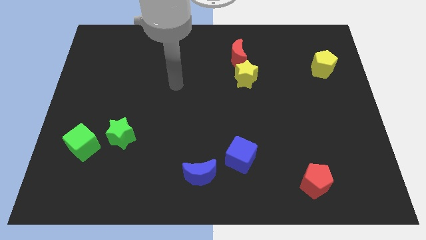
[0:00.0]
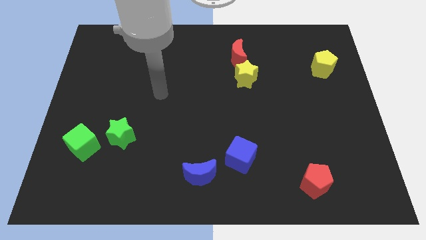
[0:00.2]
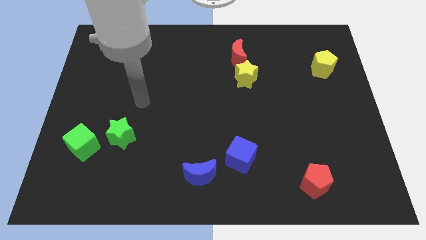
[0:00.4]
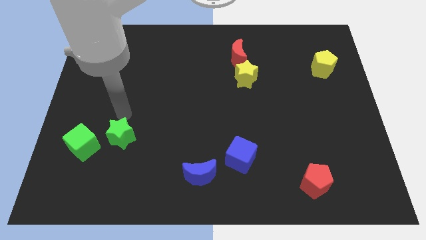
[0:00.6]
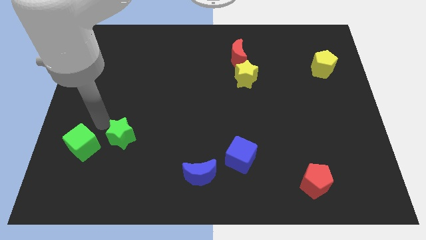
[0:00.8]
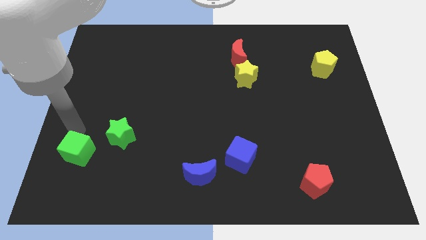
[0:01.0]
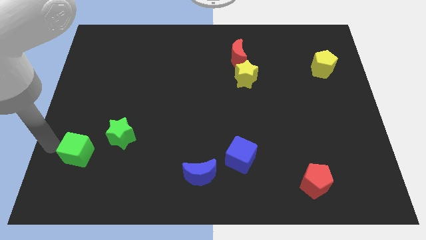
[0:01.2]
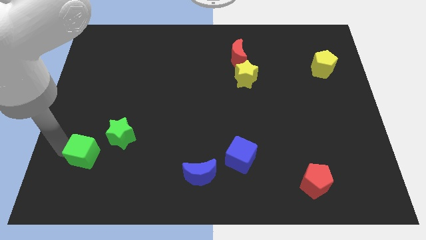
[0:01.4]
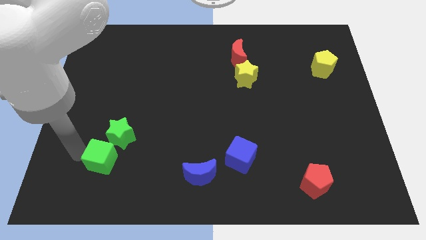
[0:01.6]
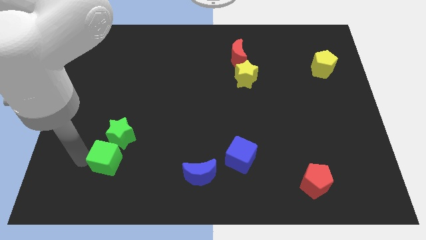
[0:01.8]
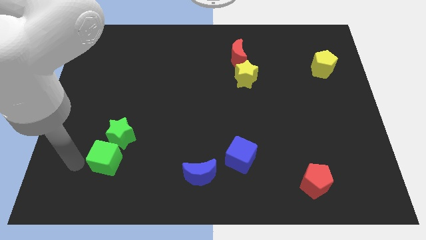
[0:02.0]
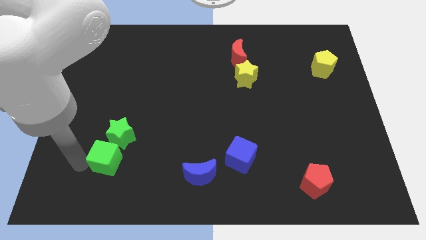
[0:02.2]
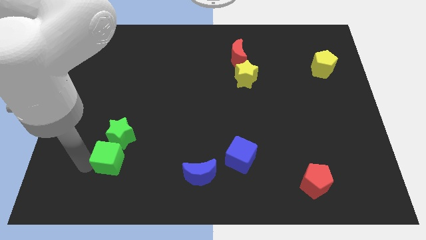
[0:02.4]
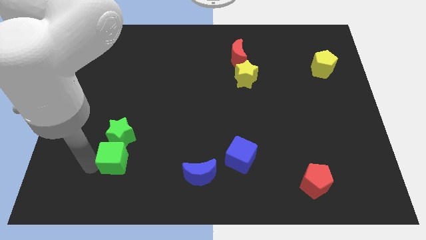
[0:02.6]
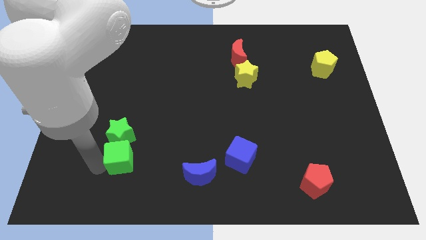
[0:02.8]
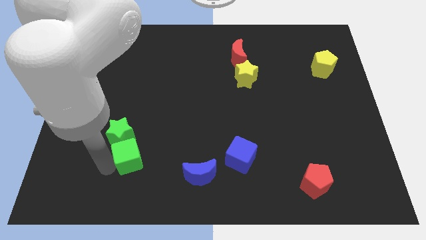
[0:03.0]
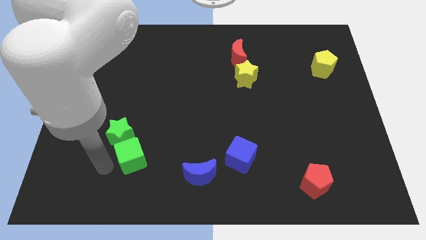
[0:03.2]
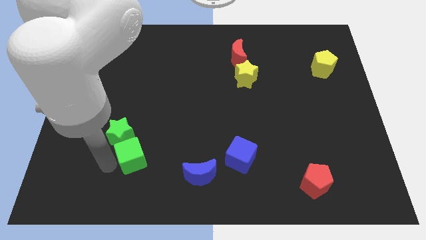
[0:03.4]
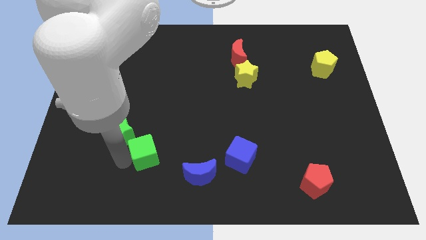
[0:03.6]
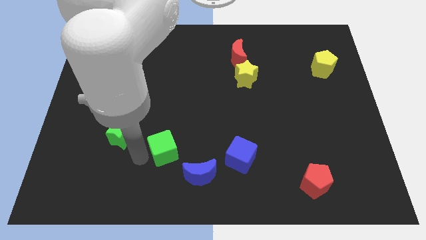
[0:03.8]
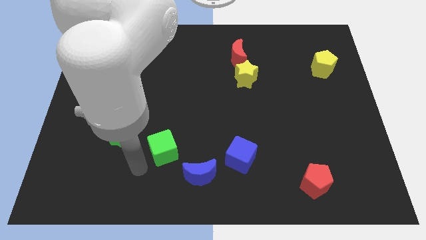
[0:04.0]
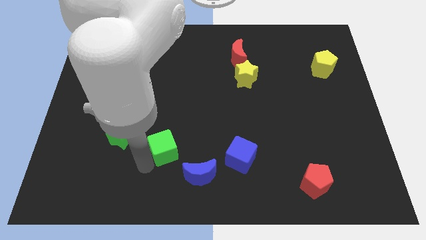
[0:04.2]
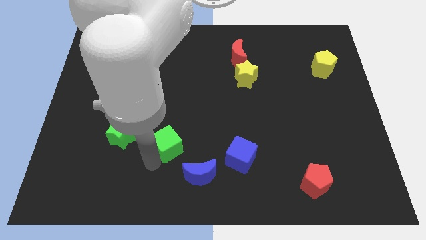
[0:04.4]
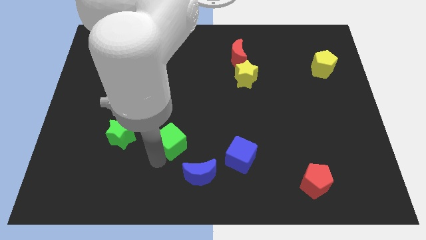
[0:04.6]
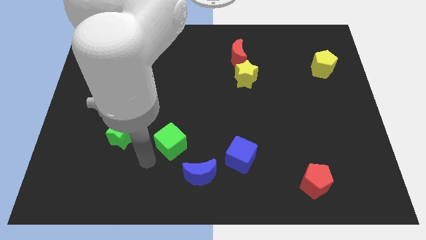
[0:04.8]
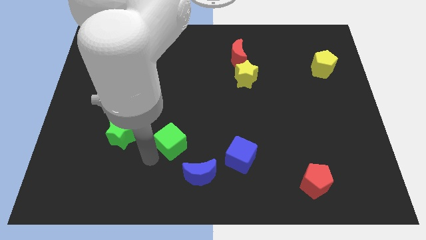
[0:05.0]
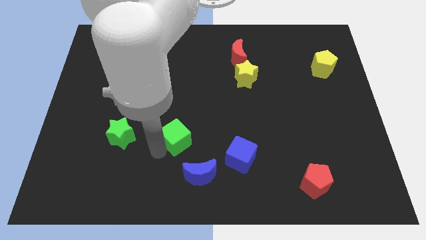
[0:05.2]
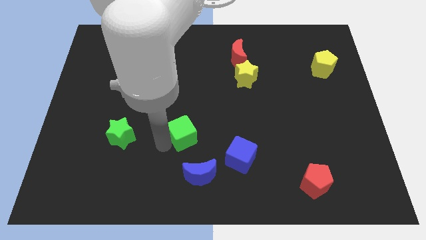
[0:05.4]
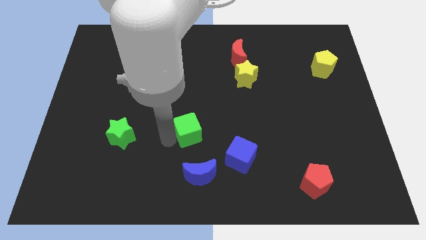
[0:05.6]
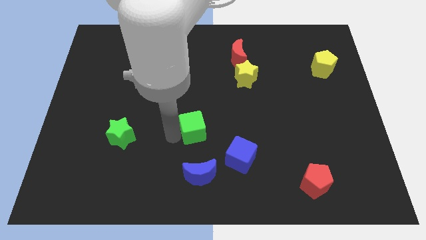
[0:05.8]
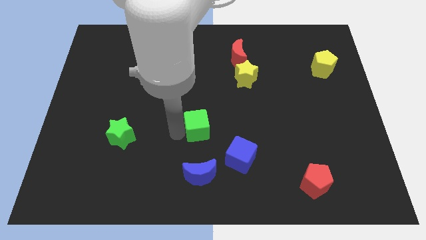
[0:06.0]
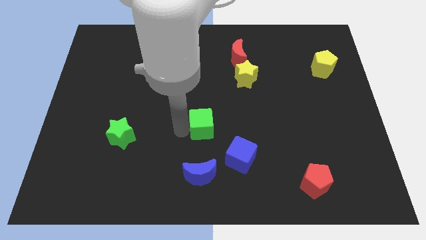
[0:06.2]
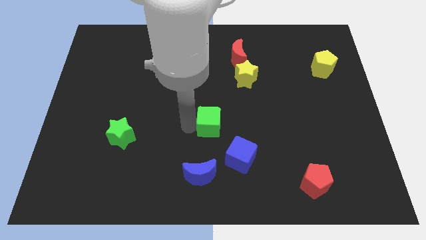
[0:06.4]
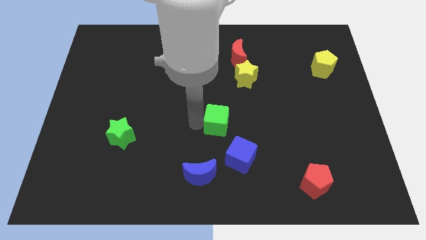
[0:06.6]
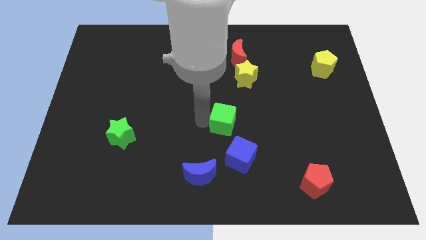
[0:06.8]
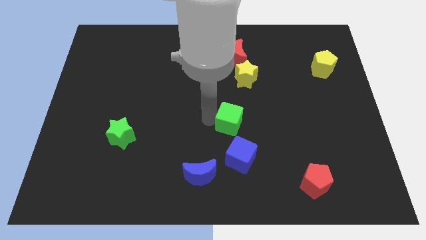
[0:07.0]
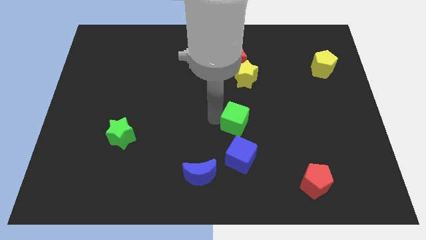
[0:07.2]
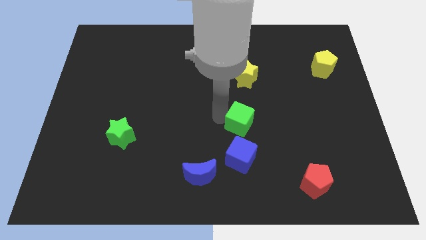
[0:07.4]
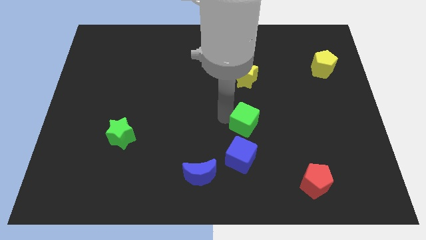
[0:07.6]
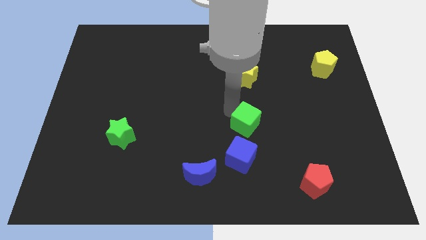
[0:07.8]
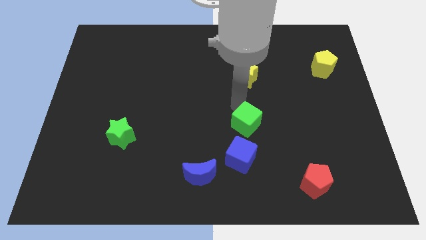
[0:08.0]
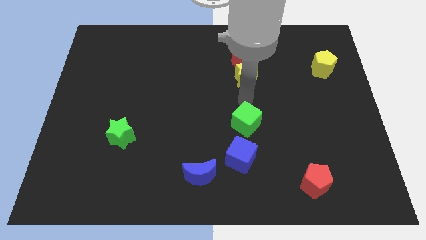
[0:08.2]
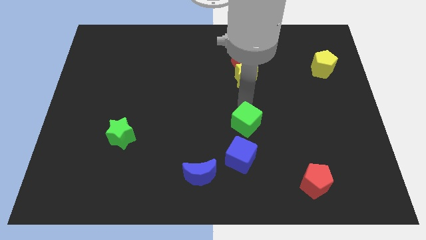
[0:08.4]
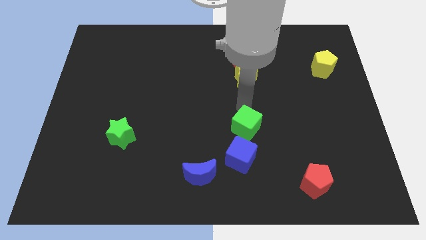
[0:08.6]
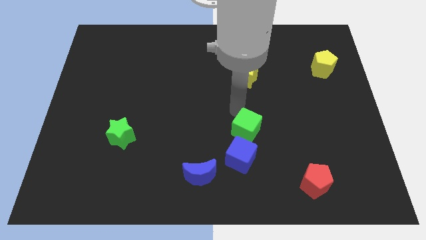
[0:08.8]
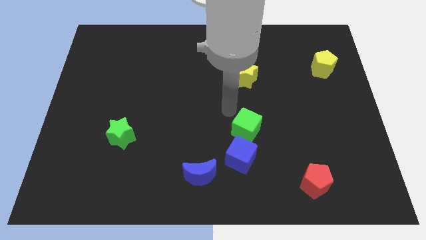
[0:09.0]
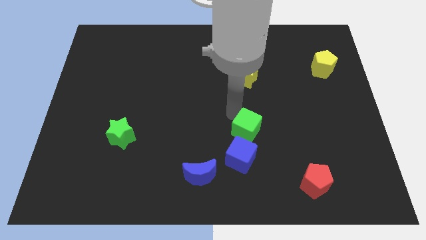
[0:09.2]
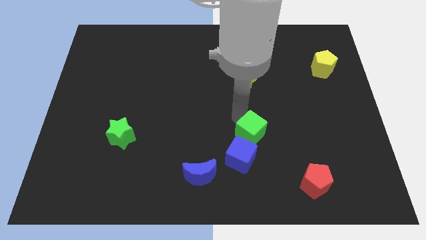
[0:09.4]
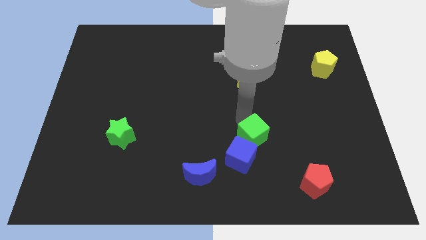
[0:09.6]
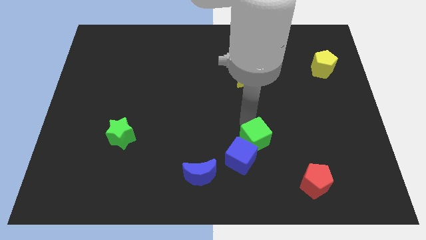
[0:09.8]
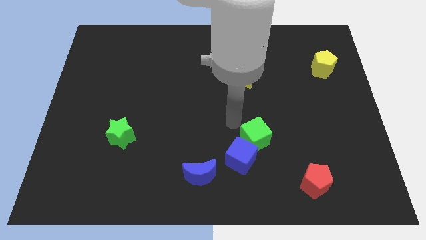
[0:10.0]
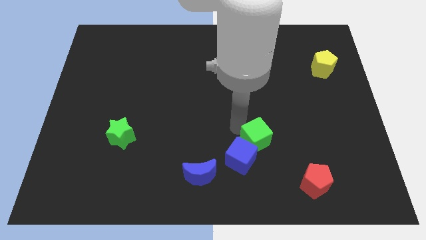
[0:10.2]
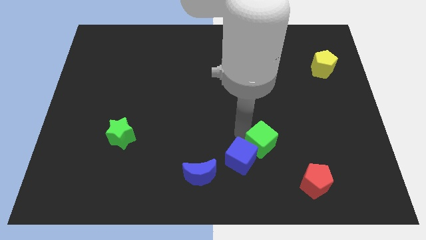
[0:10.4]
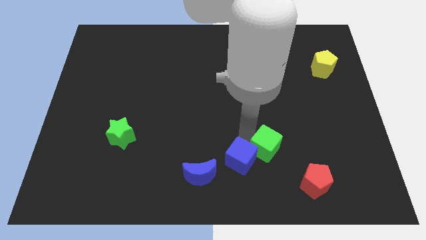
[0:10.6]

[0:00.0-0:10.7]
move the green cube to the top left of the red pentagon

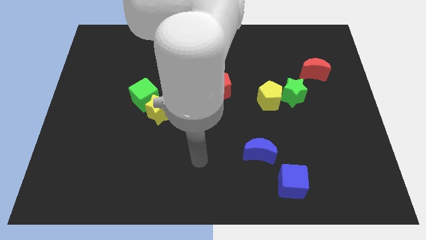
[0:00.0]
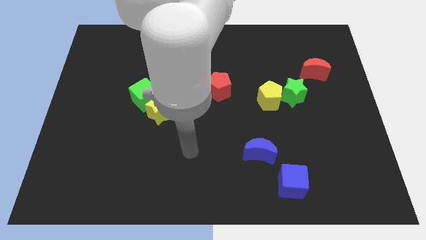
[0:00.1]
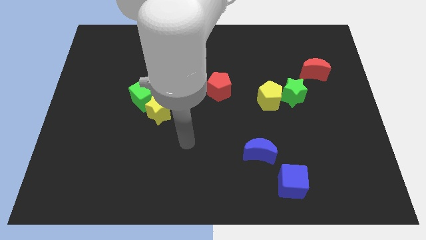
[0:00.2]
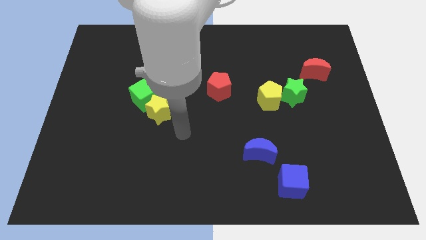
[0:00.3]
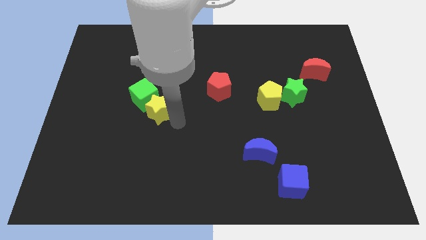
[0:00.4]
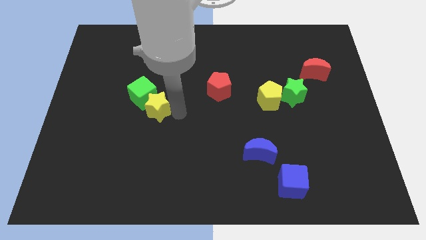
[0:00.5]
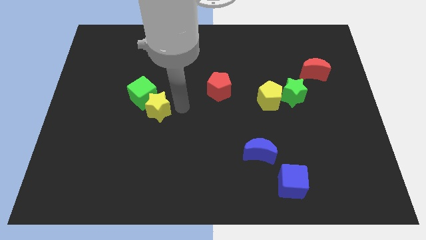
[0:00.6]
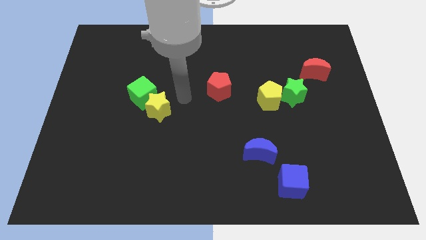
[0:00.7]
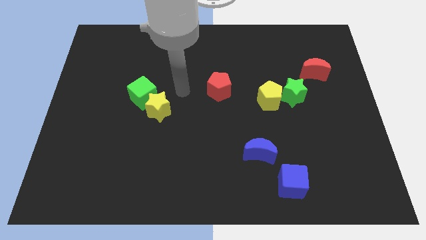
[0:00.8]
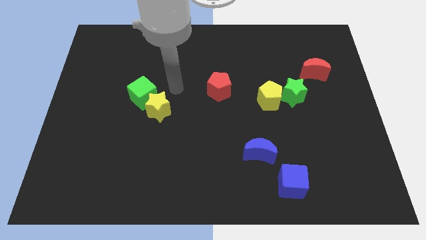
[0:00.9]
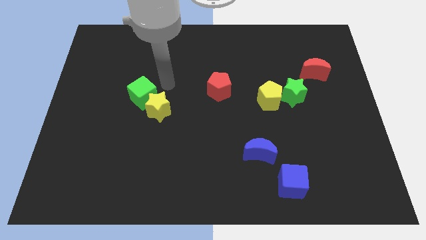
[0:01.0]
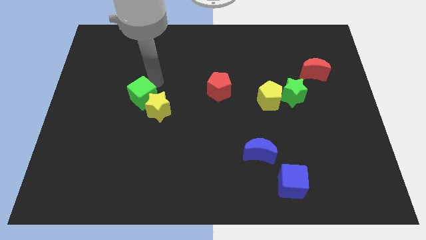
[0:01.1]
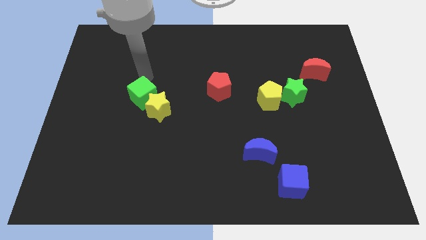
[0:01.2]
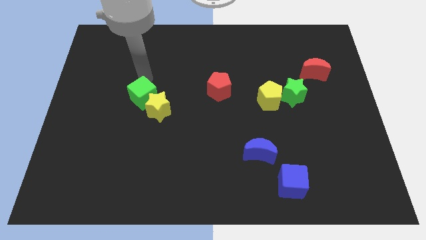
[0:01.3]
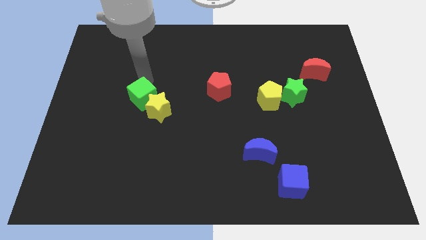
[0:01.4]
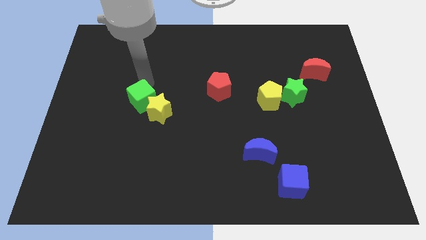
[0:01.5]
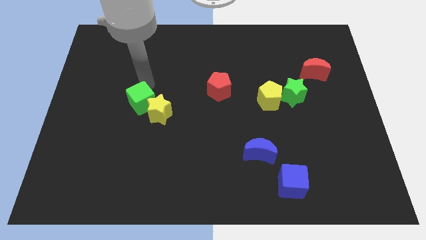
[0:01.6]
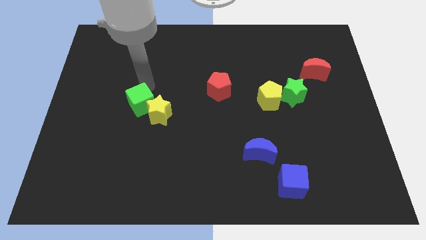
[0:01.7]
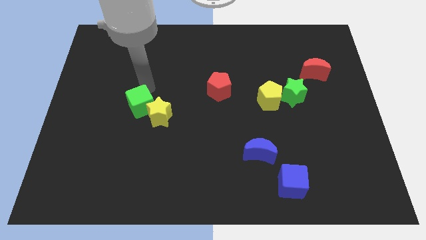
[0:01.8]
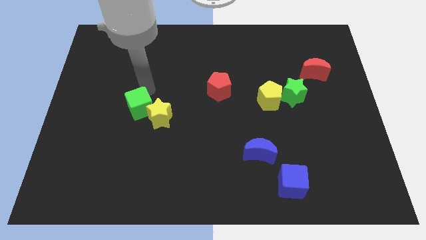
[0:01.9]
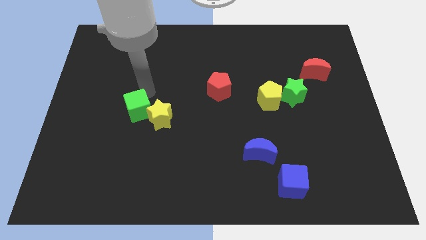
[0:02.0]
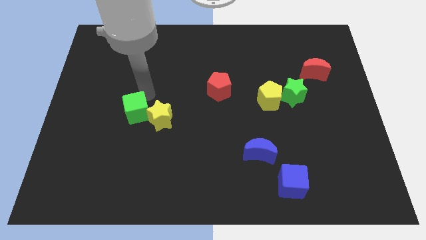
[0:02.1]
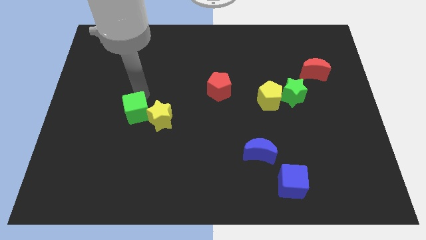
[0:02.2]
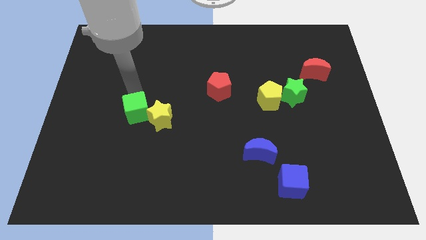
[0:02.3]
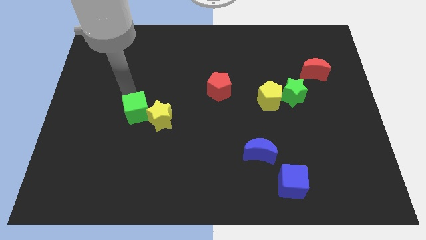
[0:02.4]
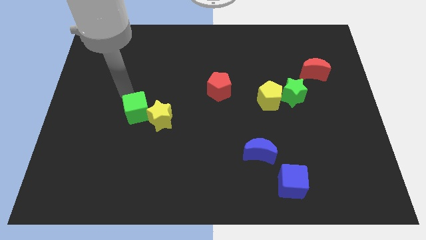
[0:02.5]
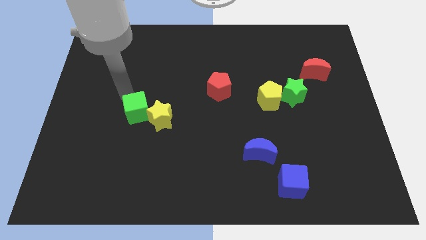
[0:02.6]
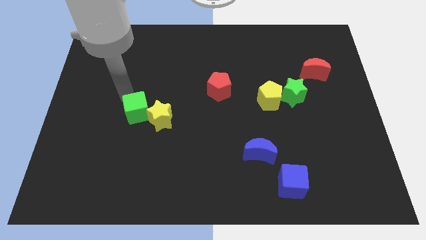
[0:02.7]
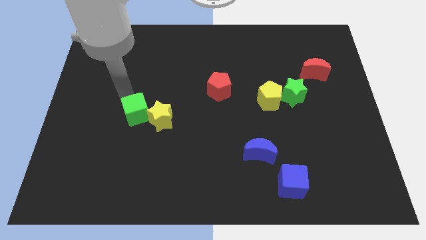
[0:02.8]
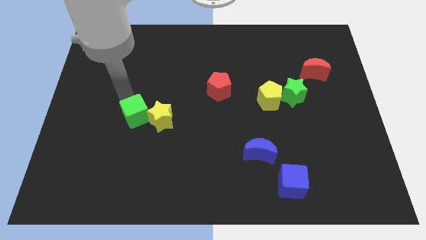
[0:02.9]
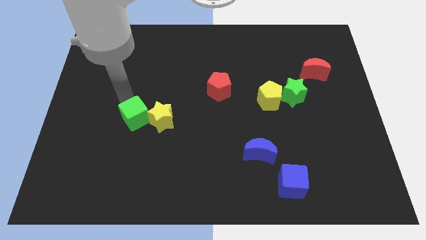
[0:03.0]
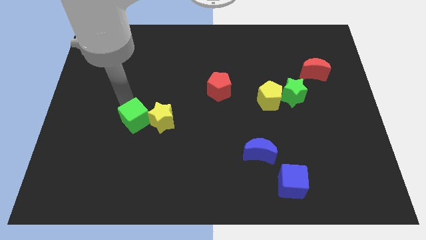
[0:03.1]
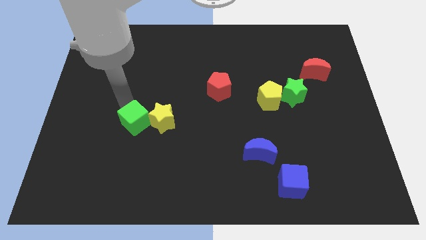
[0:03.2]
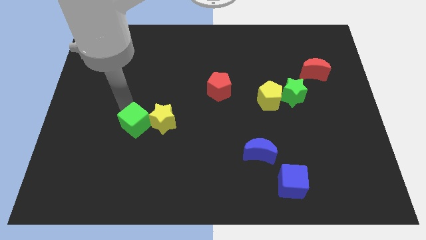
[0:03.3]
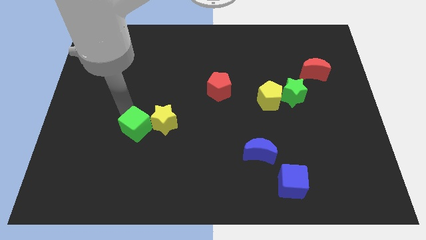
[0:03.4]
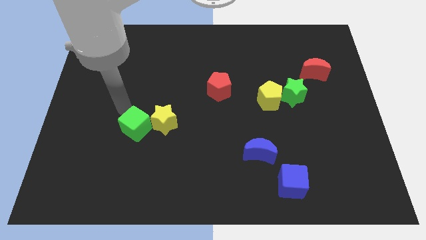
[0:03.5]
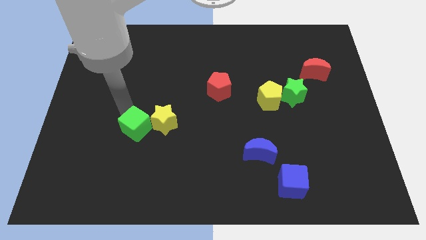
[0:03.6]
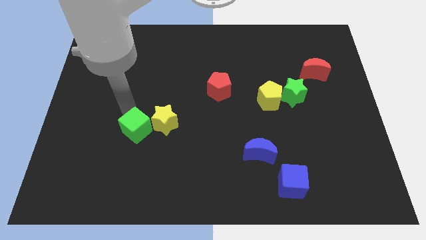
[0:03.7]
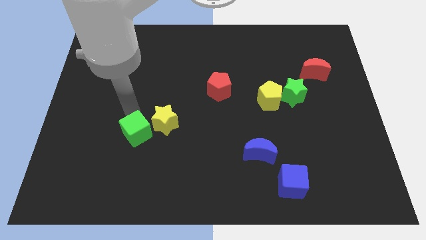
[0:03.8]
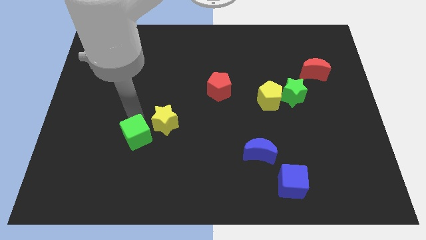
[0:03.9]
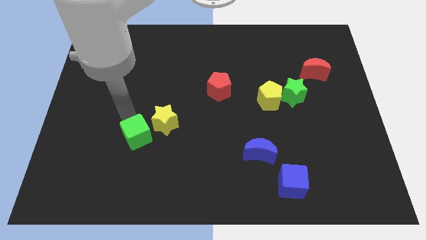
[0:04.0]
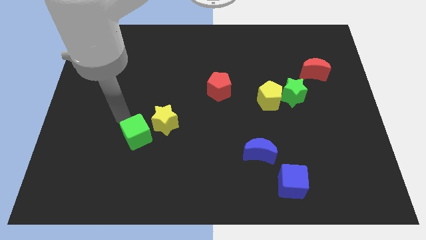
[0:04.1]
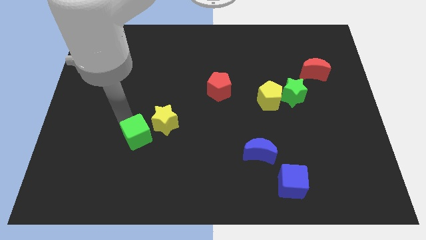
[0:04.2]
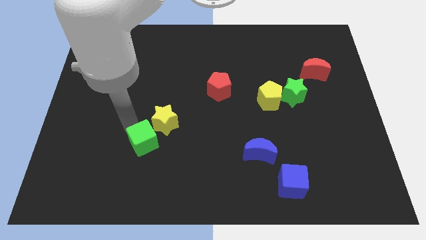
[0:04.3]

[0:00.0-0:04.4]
slide the green cube below the yellow star
